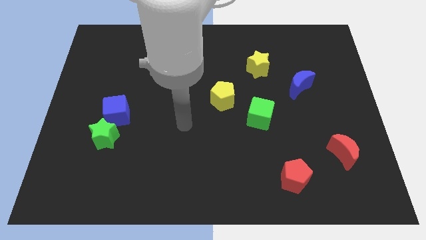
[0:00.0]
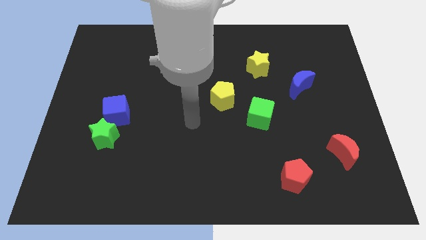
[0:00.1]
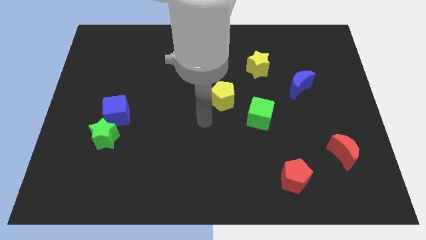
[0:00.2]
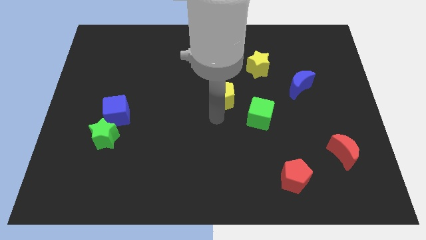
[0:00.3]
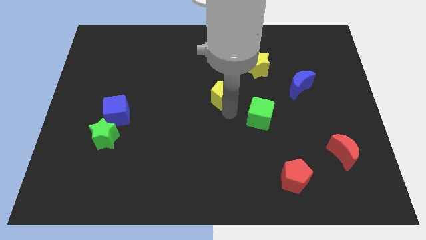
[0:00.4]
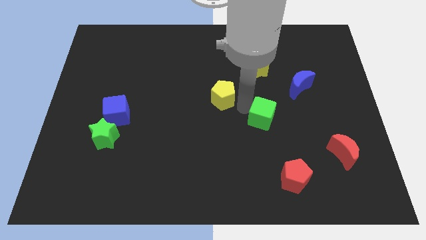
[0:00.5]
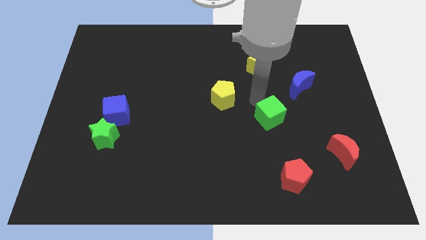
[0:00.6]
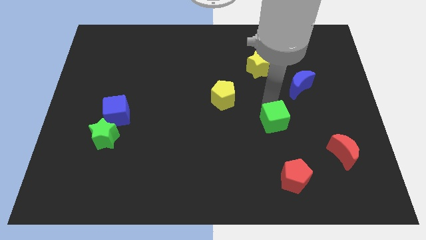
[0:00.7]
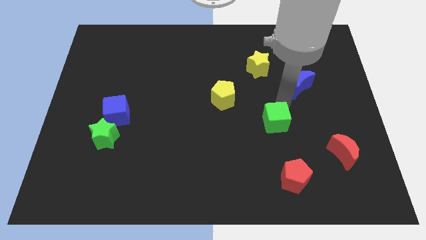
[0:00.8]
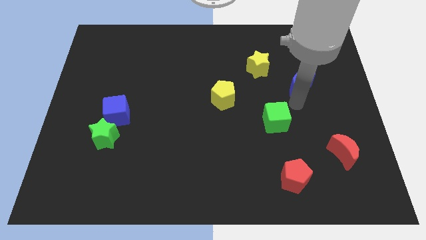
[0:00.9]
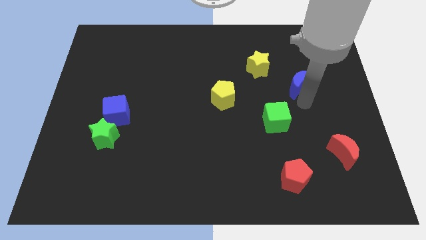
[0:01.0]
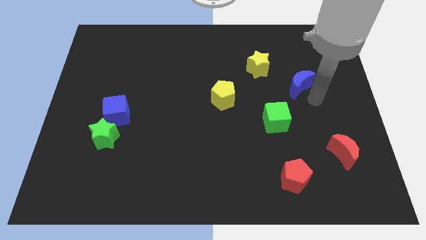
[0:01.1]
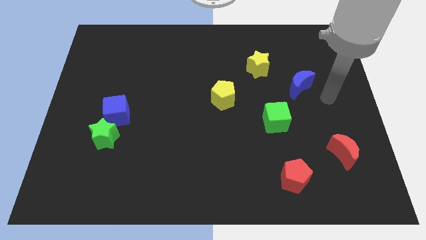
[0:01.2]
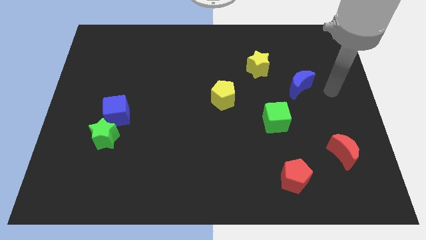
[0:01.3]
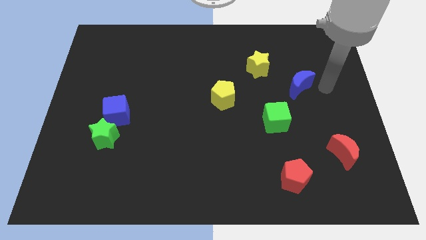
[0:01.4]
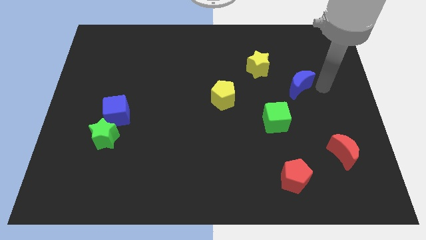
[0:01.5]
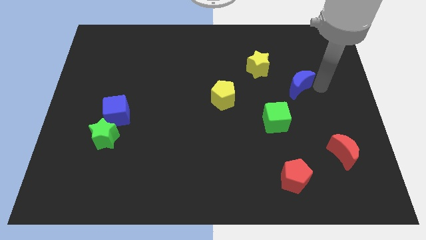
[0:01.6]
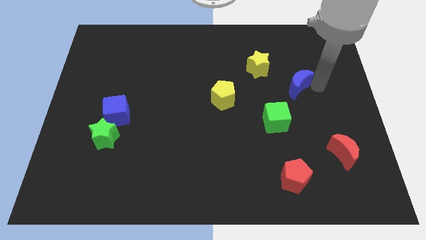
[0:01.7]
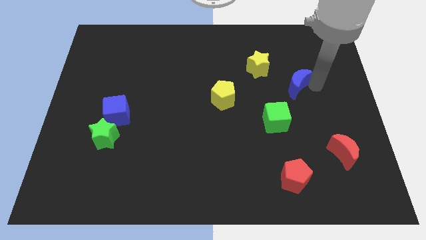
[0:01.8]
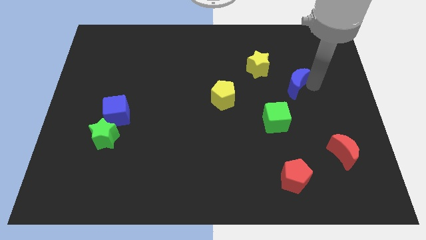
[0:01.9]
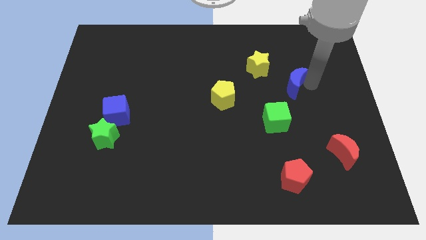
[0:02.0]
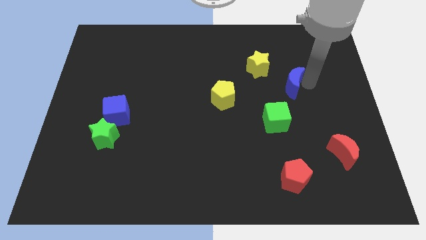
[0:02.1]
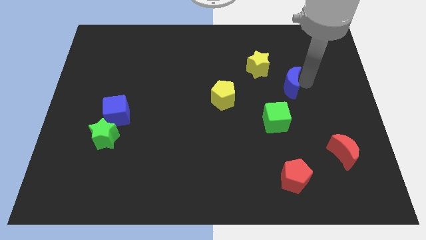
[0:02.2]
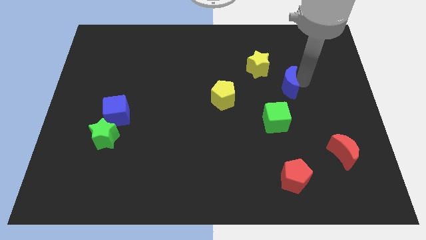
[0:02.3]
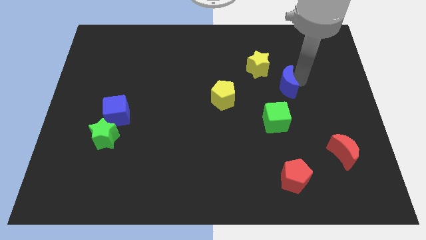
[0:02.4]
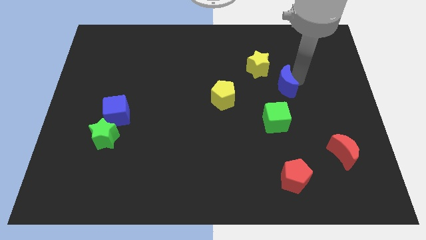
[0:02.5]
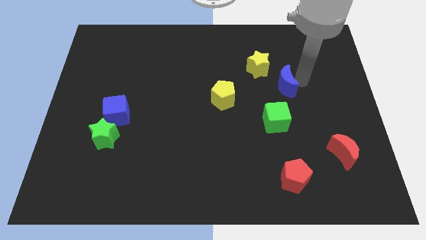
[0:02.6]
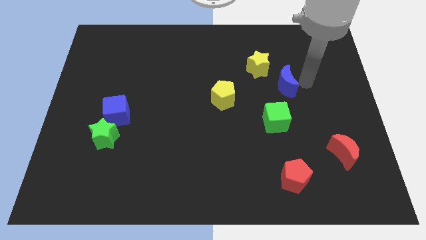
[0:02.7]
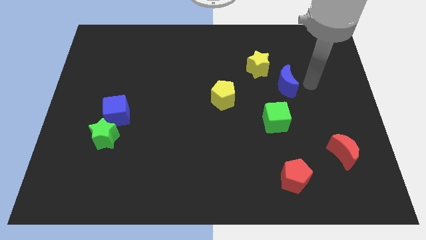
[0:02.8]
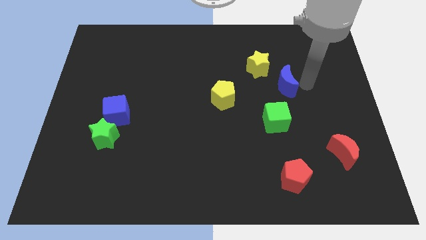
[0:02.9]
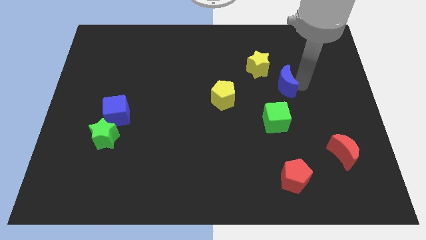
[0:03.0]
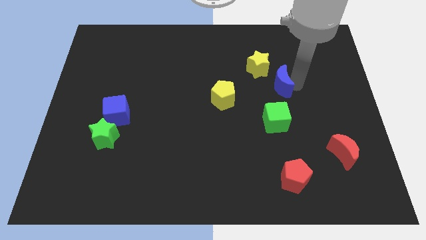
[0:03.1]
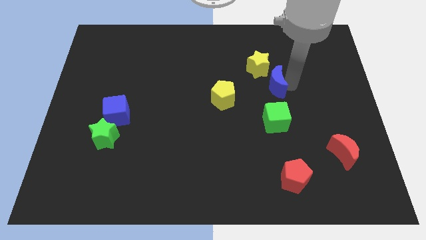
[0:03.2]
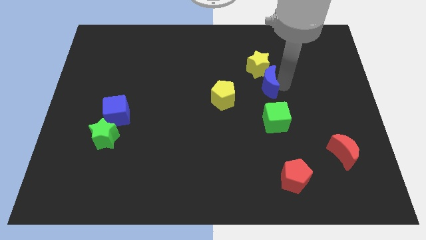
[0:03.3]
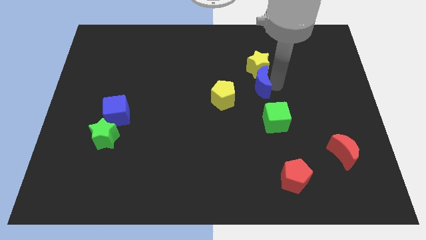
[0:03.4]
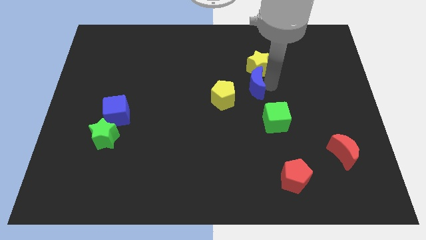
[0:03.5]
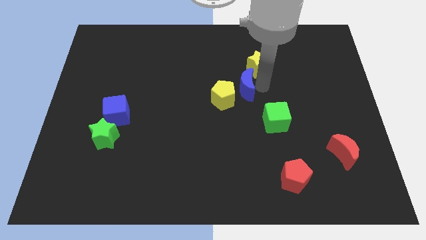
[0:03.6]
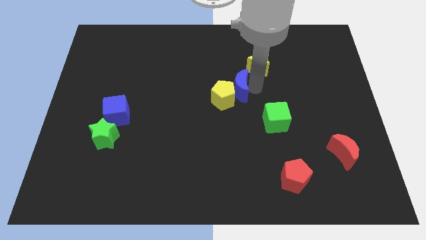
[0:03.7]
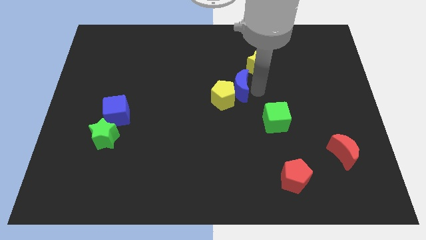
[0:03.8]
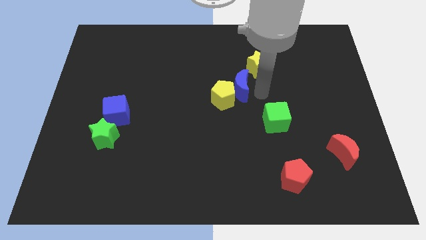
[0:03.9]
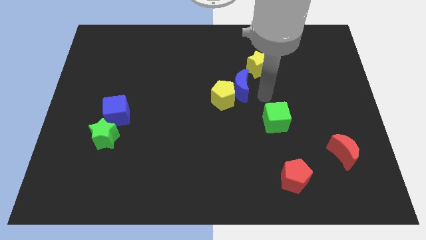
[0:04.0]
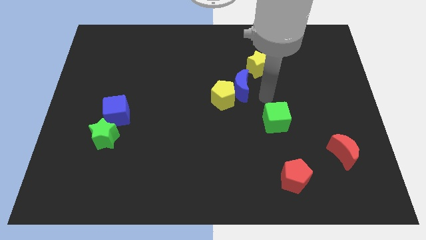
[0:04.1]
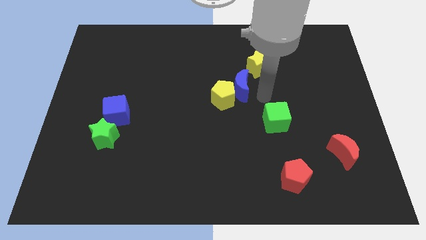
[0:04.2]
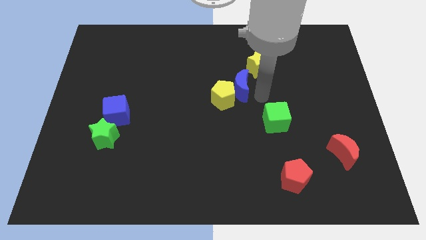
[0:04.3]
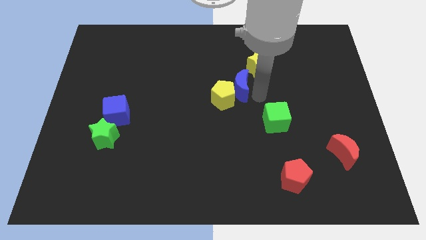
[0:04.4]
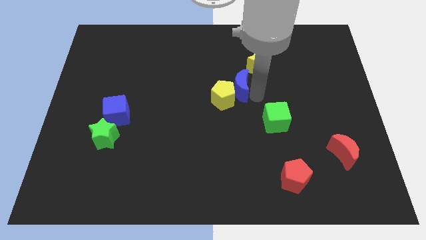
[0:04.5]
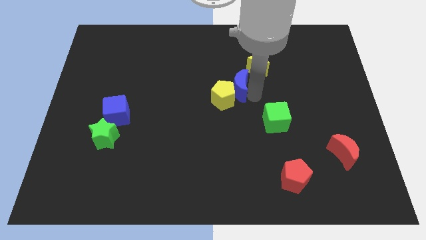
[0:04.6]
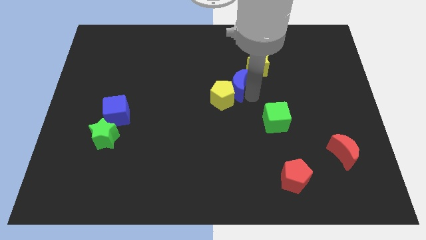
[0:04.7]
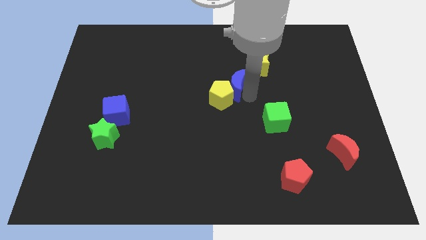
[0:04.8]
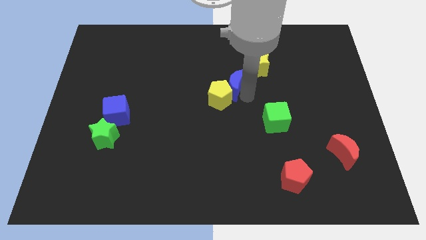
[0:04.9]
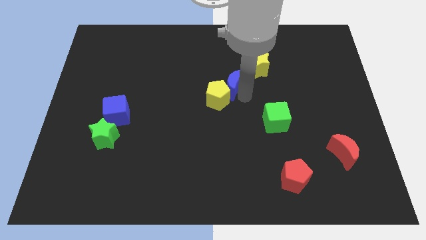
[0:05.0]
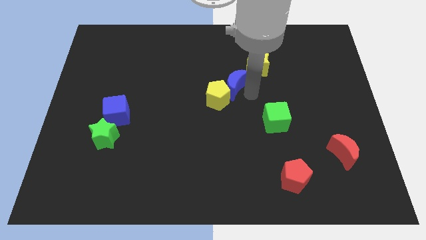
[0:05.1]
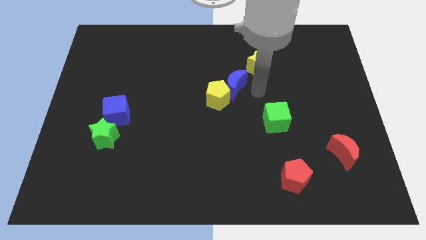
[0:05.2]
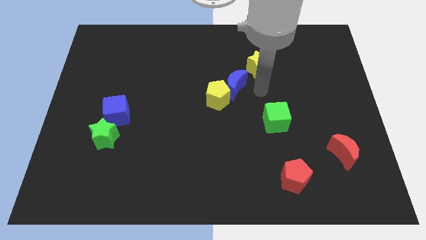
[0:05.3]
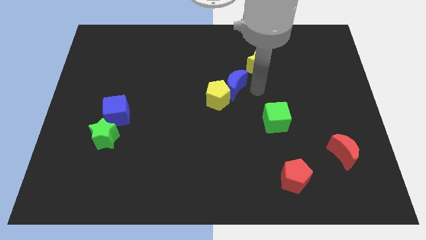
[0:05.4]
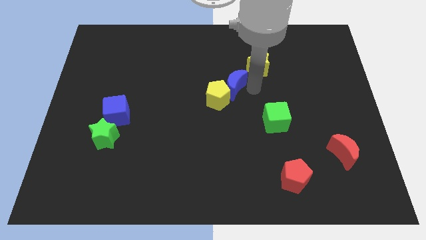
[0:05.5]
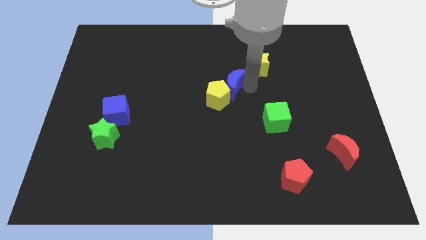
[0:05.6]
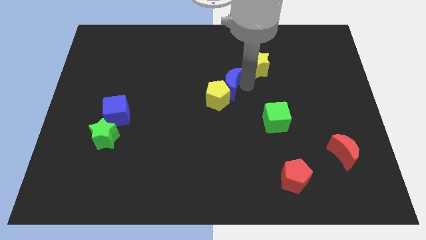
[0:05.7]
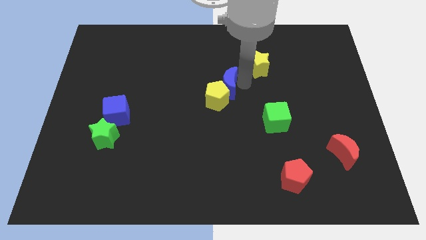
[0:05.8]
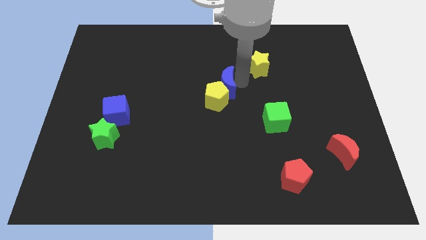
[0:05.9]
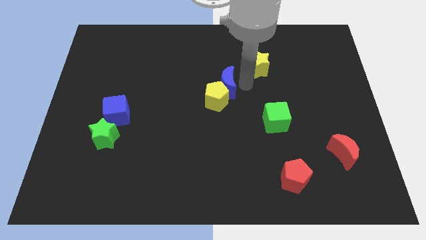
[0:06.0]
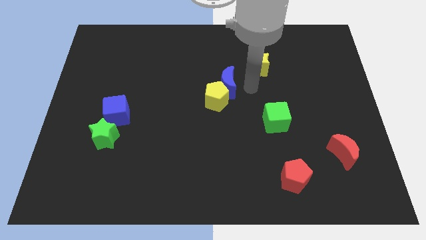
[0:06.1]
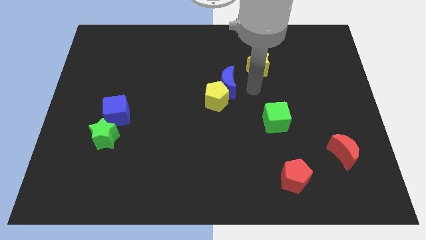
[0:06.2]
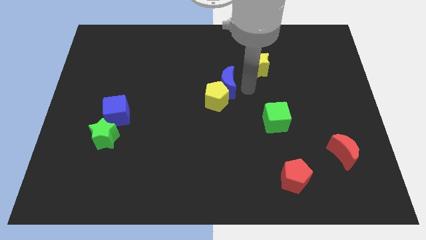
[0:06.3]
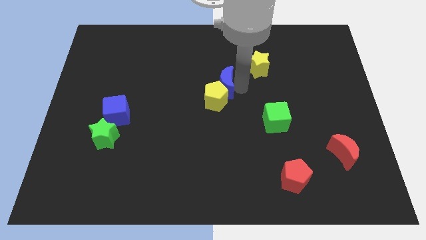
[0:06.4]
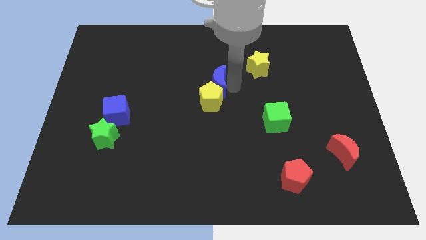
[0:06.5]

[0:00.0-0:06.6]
push the blue moon to the left

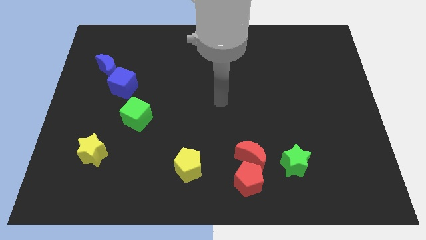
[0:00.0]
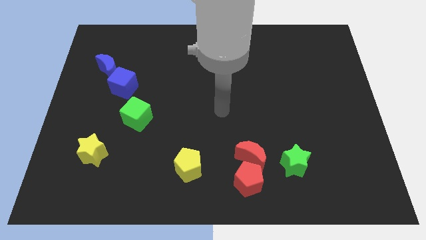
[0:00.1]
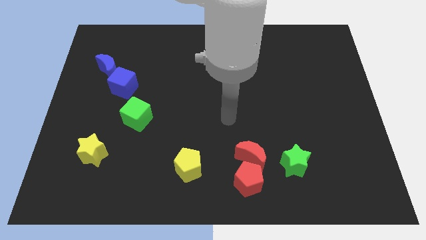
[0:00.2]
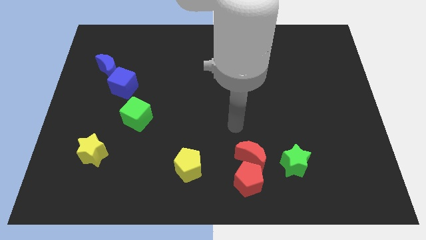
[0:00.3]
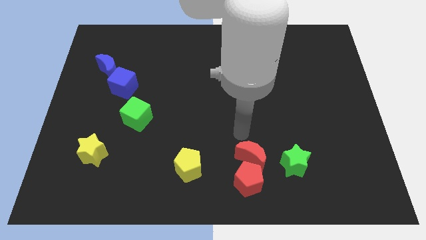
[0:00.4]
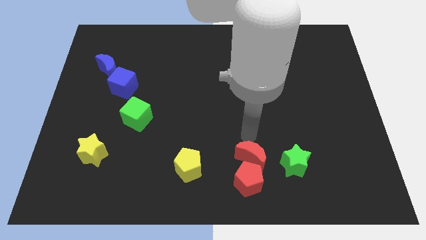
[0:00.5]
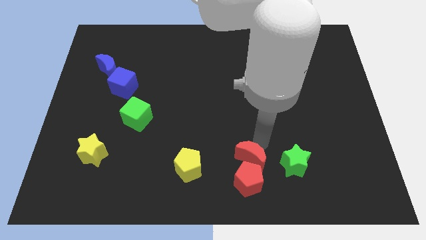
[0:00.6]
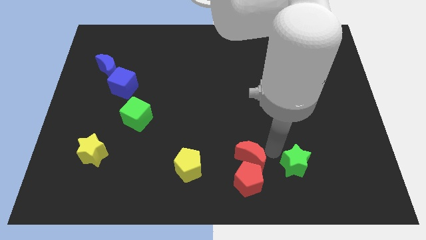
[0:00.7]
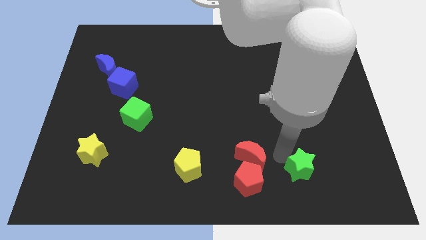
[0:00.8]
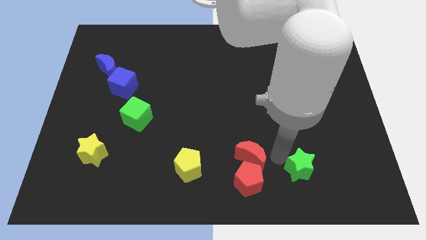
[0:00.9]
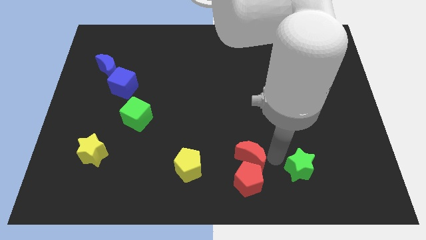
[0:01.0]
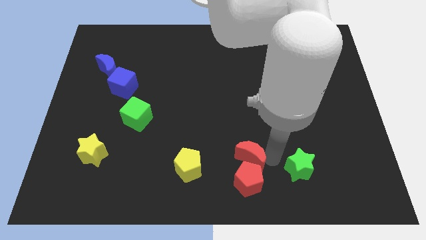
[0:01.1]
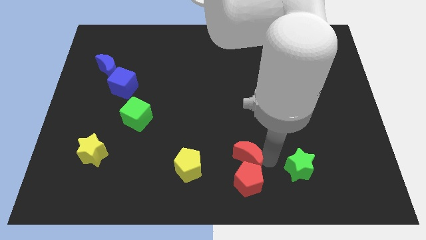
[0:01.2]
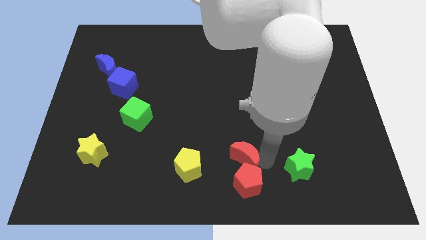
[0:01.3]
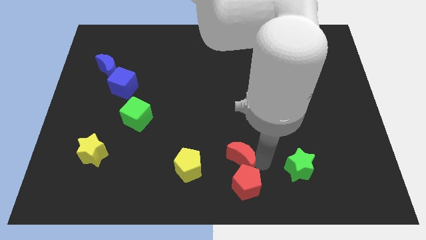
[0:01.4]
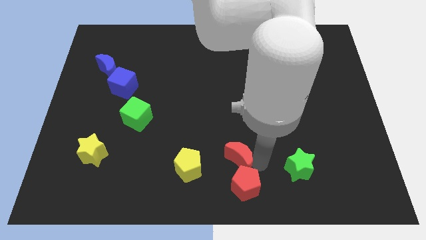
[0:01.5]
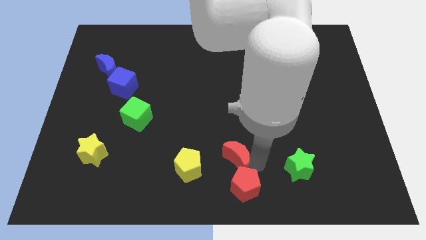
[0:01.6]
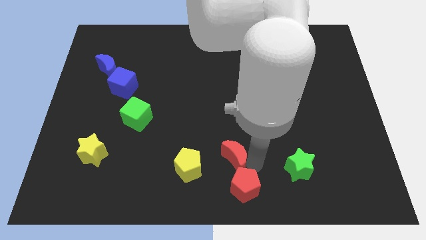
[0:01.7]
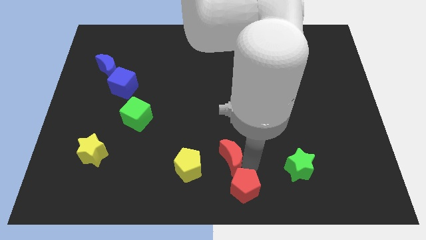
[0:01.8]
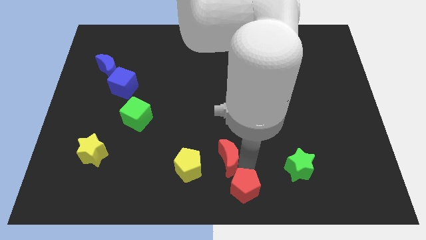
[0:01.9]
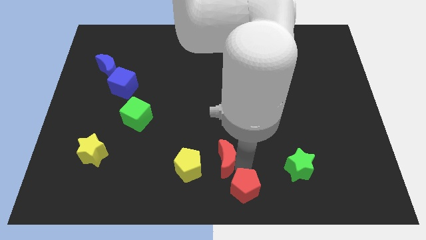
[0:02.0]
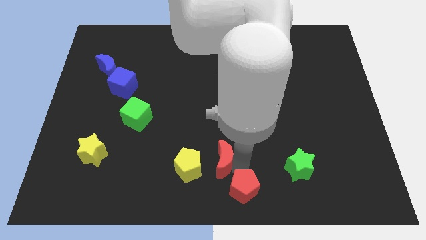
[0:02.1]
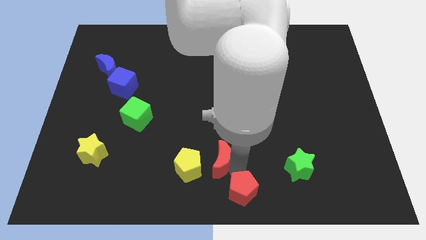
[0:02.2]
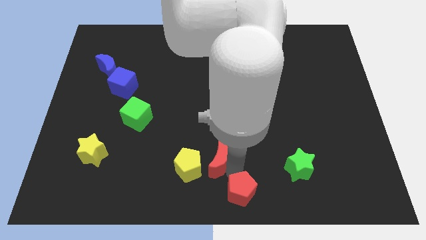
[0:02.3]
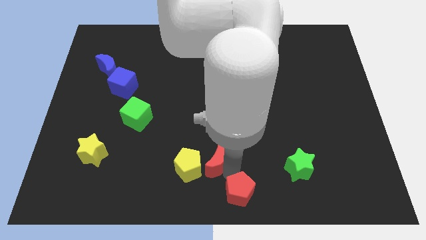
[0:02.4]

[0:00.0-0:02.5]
slightly slide the red moon left
